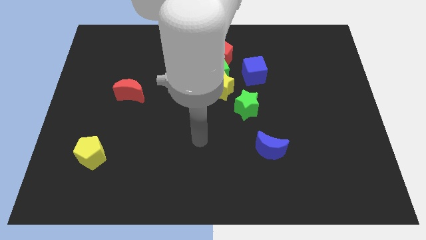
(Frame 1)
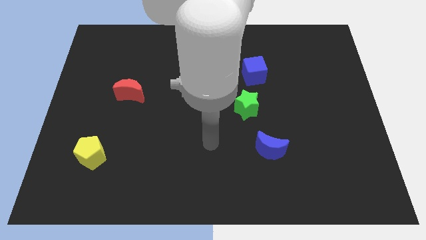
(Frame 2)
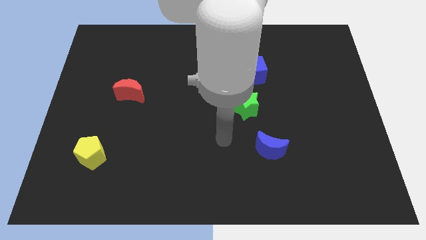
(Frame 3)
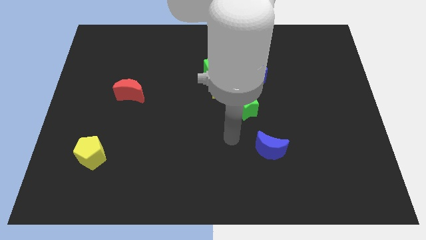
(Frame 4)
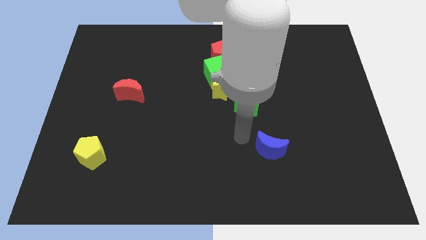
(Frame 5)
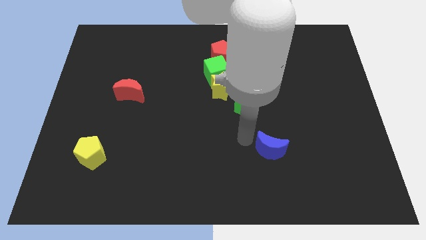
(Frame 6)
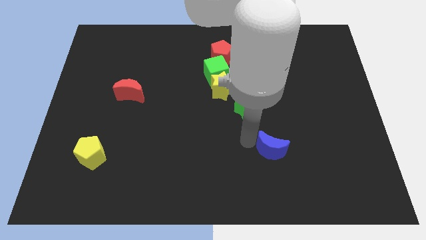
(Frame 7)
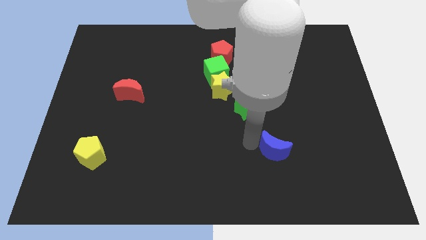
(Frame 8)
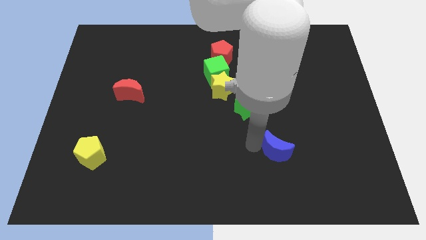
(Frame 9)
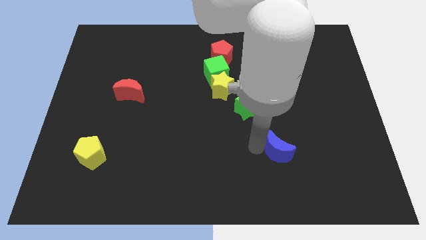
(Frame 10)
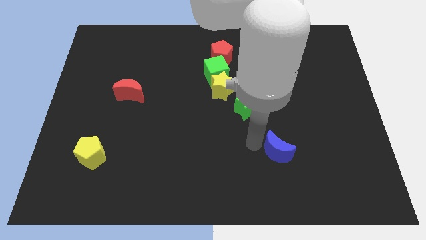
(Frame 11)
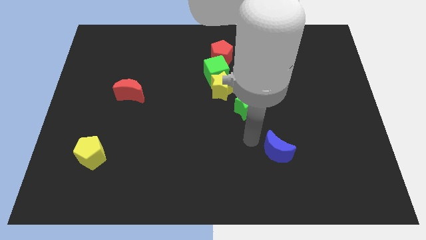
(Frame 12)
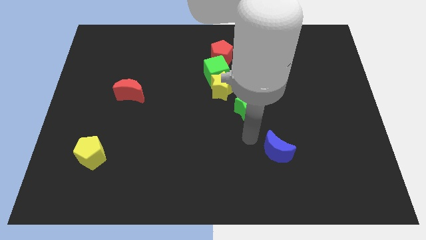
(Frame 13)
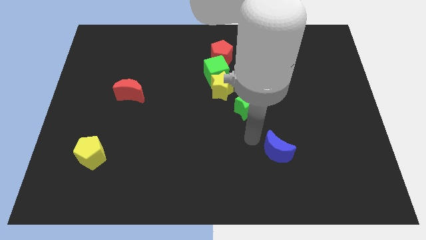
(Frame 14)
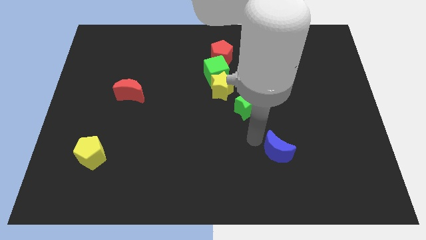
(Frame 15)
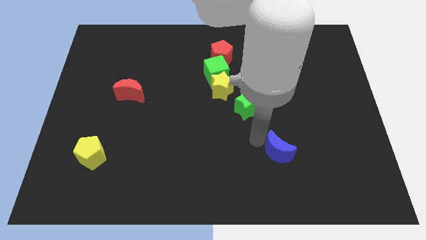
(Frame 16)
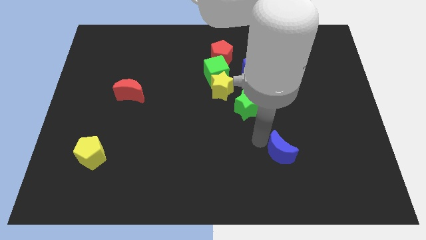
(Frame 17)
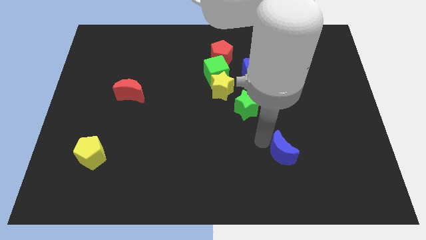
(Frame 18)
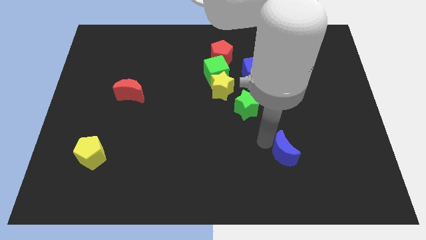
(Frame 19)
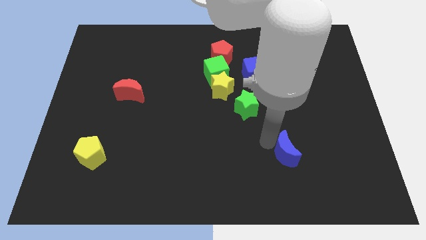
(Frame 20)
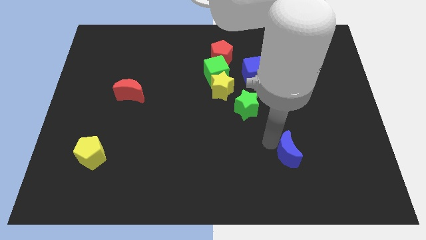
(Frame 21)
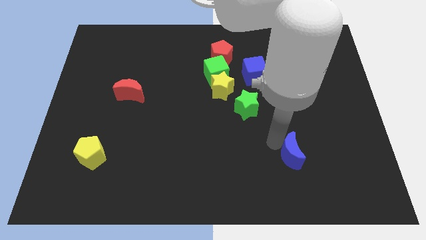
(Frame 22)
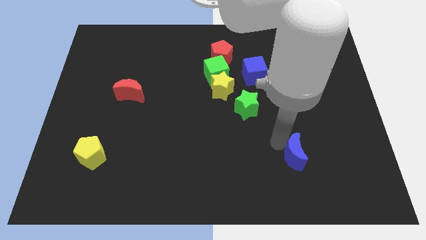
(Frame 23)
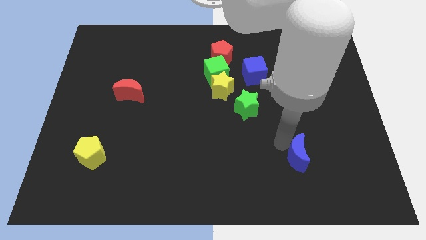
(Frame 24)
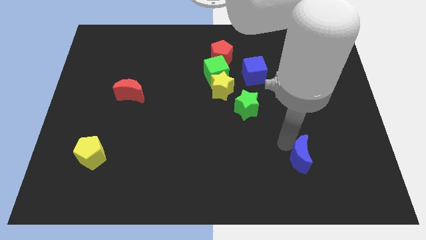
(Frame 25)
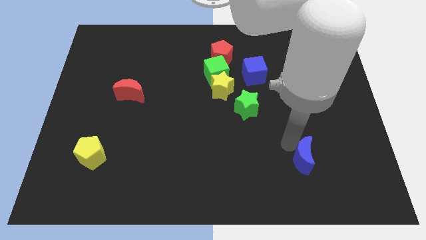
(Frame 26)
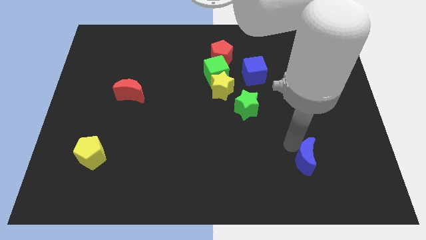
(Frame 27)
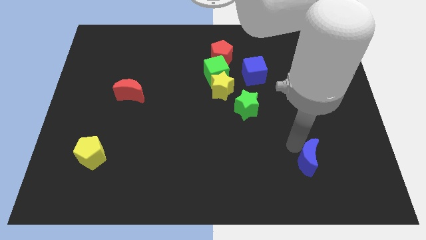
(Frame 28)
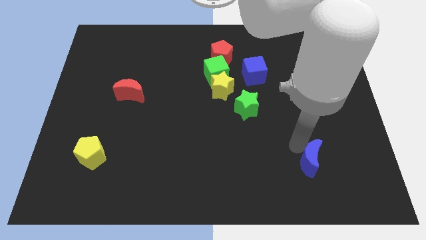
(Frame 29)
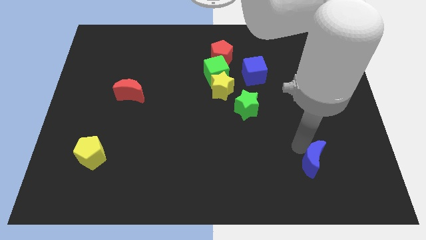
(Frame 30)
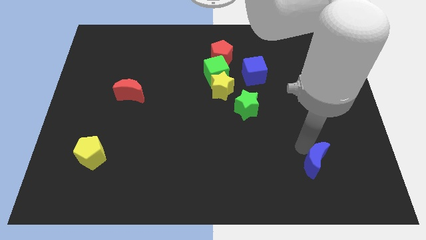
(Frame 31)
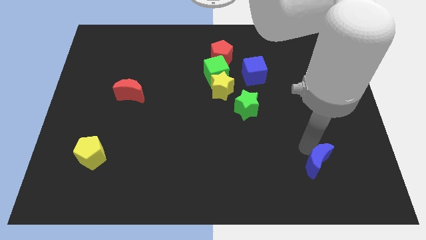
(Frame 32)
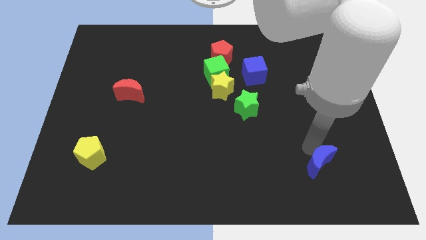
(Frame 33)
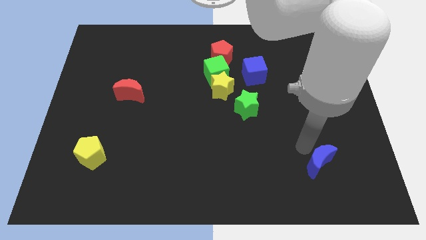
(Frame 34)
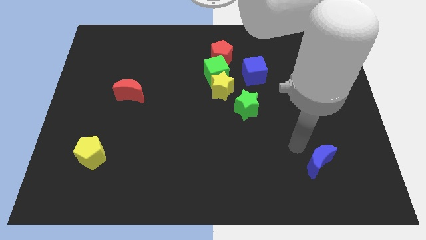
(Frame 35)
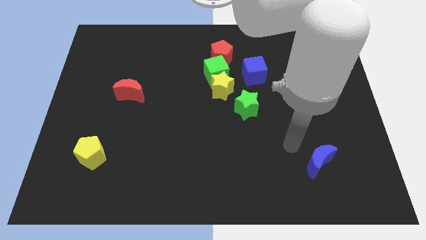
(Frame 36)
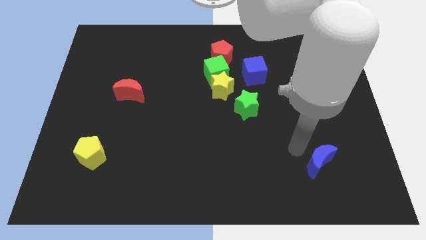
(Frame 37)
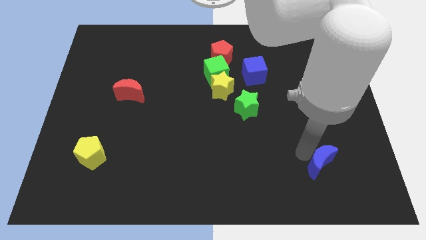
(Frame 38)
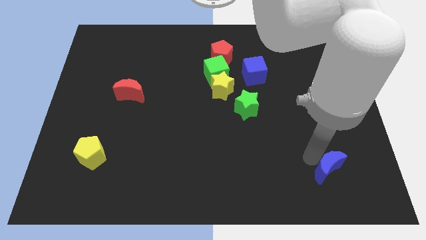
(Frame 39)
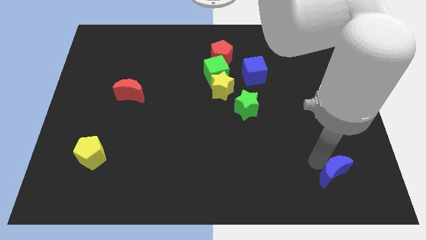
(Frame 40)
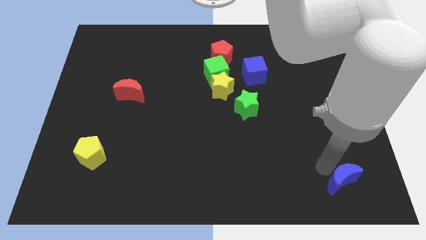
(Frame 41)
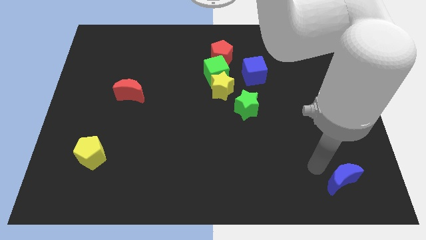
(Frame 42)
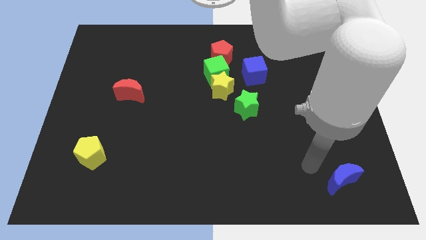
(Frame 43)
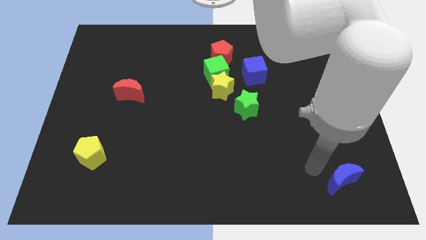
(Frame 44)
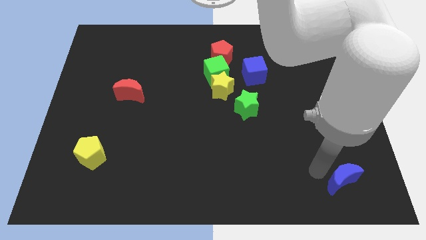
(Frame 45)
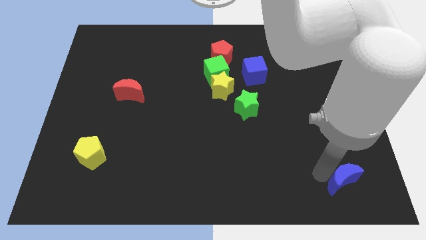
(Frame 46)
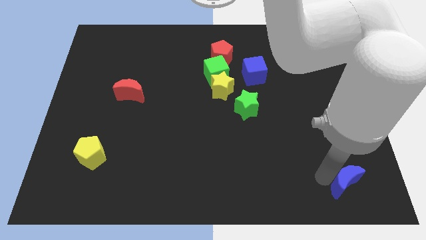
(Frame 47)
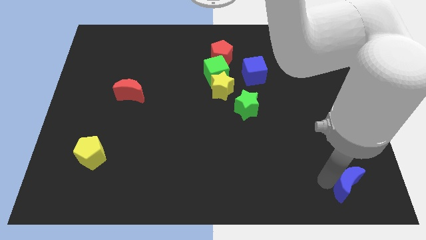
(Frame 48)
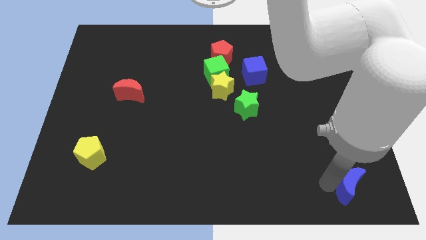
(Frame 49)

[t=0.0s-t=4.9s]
put the blue moon to the bottom right
